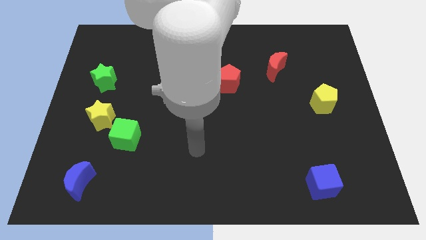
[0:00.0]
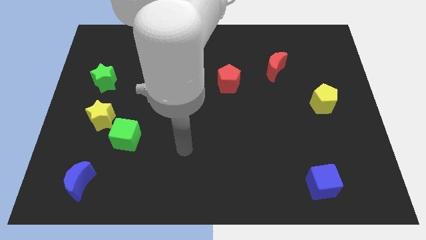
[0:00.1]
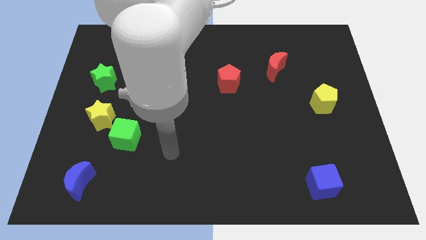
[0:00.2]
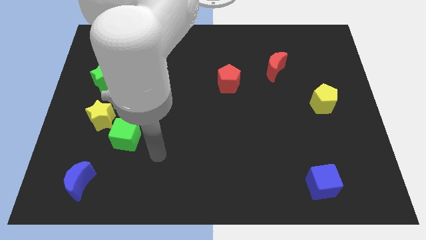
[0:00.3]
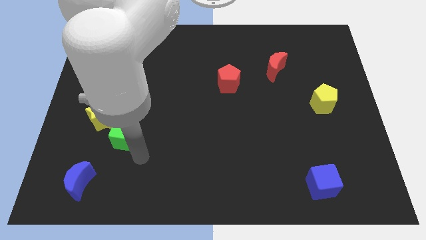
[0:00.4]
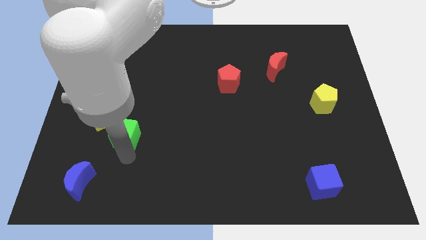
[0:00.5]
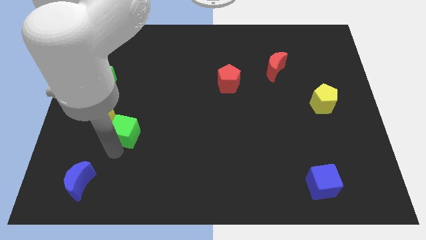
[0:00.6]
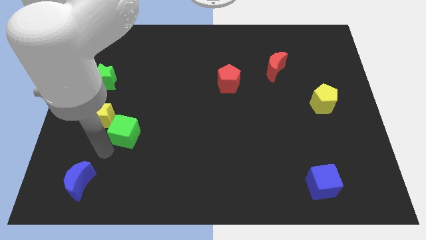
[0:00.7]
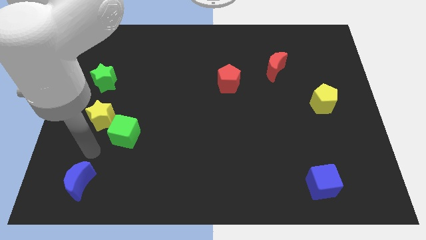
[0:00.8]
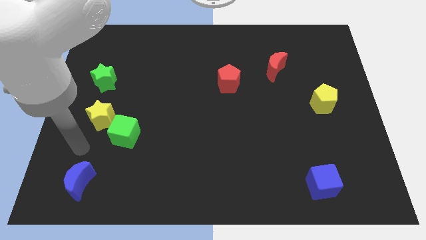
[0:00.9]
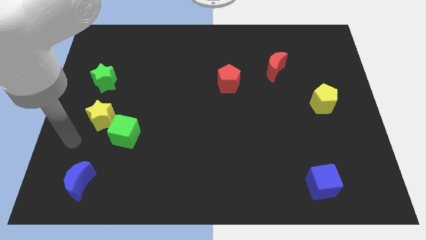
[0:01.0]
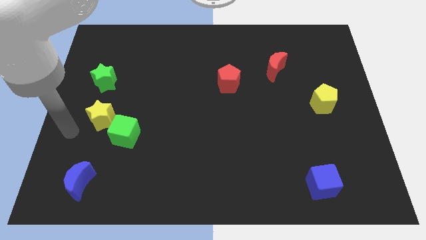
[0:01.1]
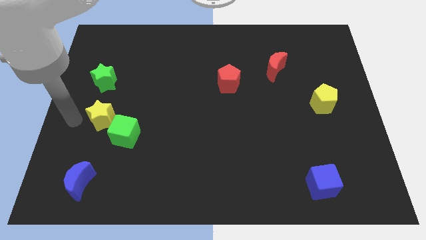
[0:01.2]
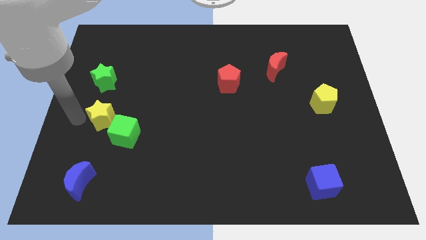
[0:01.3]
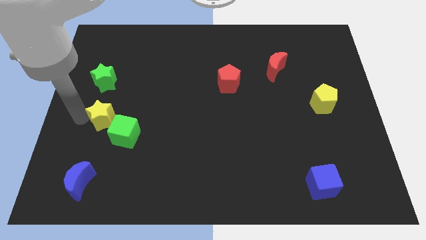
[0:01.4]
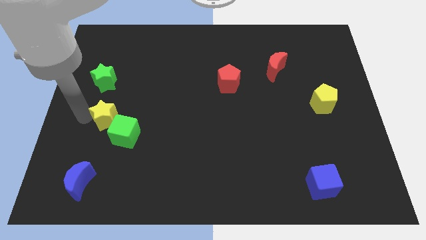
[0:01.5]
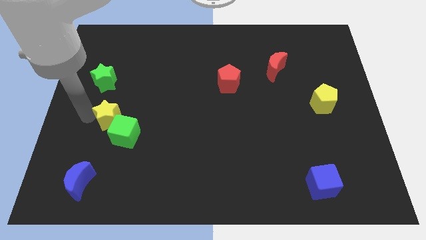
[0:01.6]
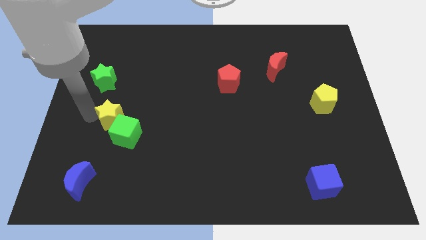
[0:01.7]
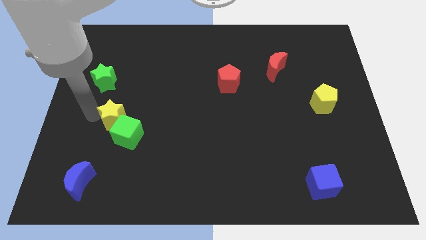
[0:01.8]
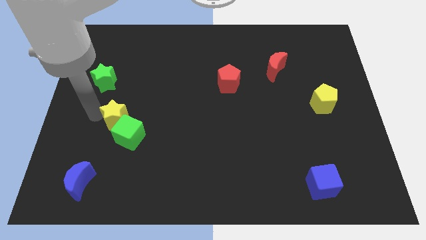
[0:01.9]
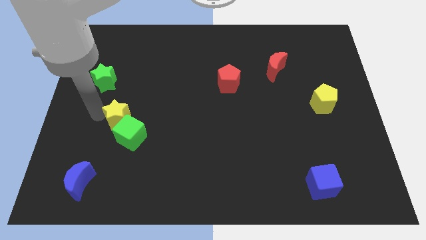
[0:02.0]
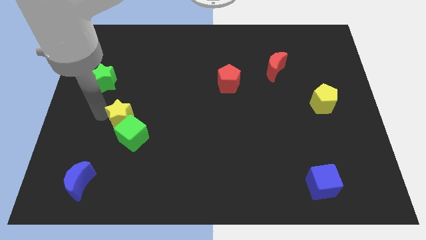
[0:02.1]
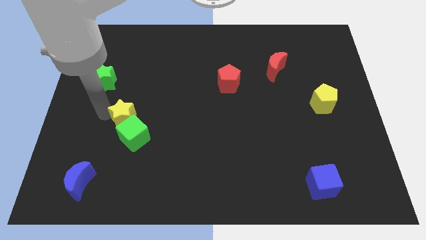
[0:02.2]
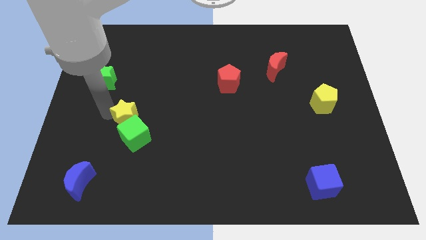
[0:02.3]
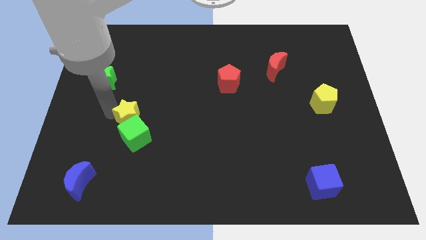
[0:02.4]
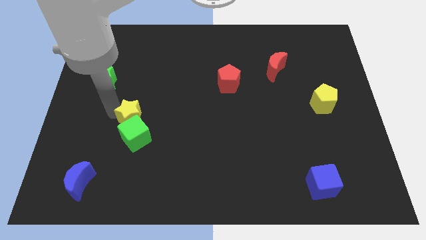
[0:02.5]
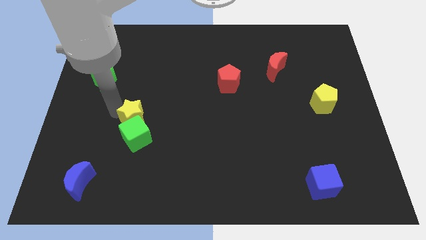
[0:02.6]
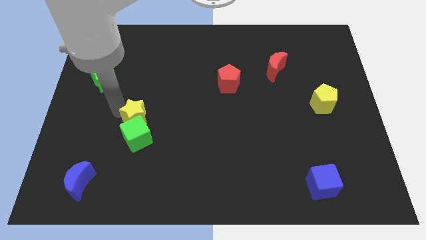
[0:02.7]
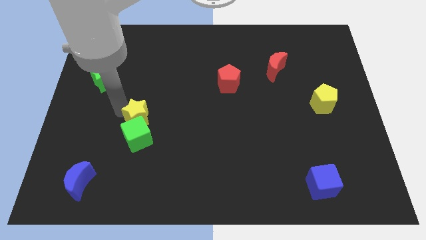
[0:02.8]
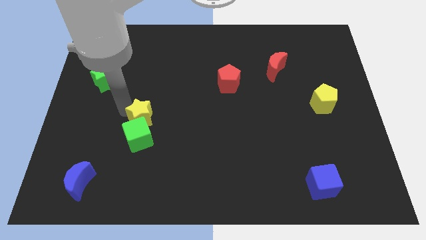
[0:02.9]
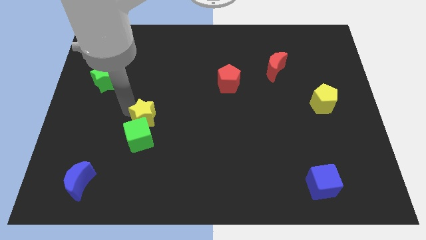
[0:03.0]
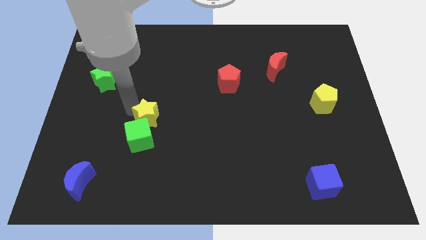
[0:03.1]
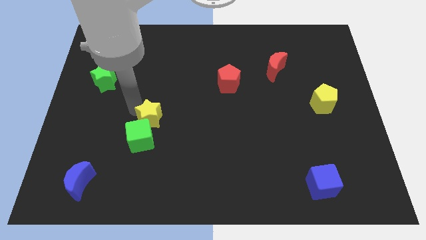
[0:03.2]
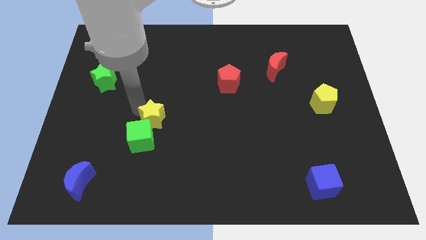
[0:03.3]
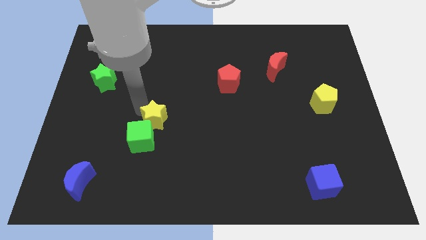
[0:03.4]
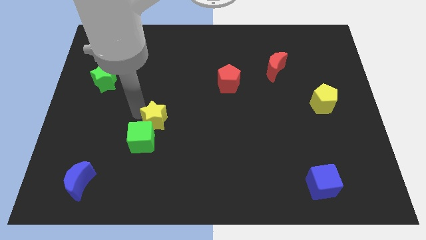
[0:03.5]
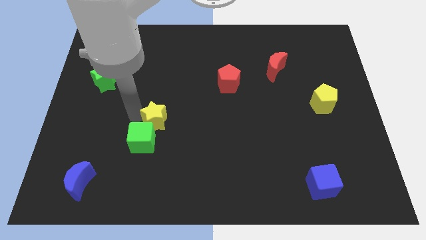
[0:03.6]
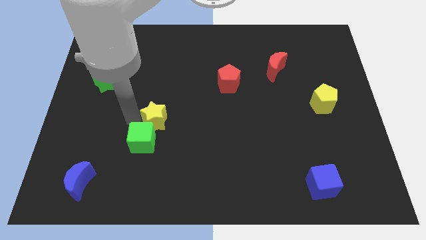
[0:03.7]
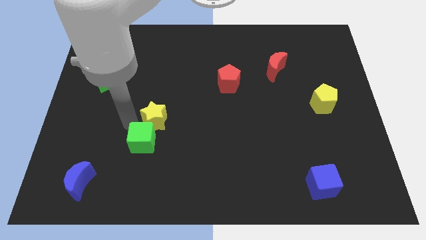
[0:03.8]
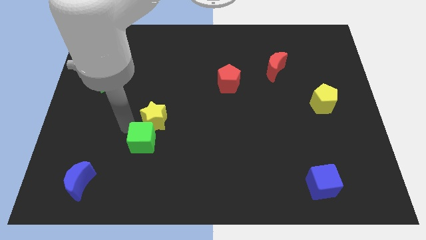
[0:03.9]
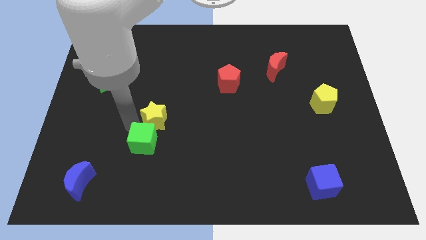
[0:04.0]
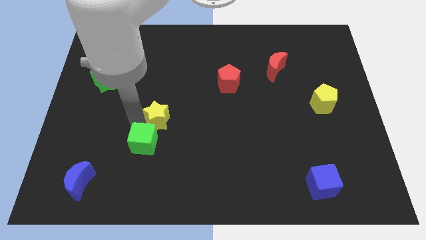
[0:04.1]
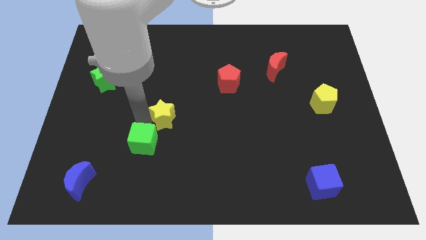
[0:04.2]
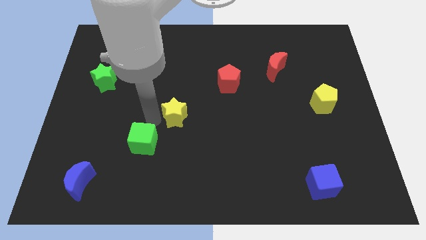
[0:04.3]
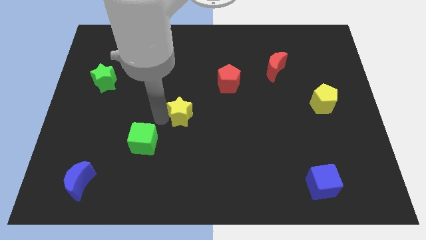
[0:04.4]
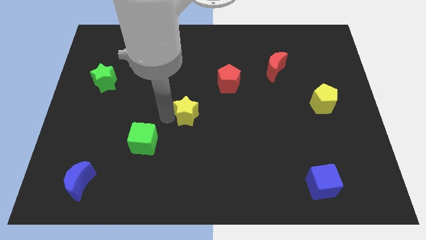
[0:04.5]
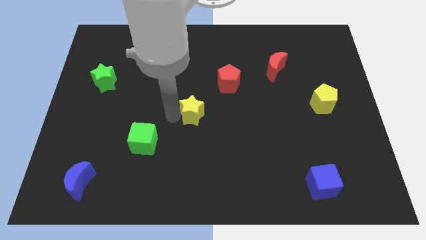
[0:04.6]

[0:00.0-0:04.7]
push the yellow star to the right

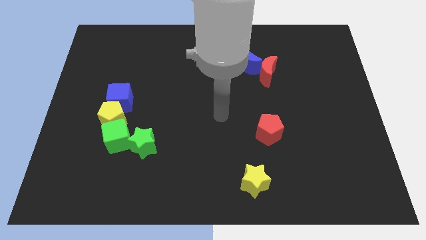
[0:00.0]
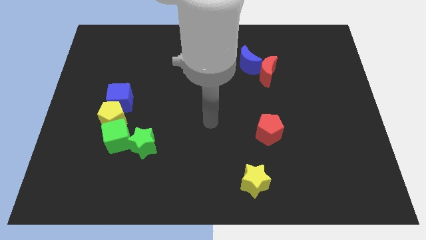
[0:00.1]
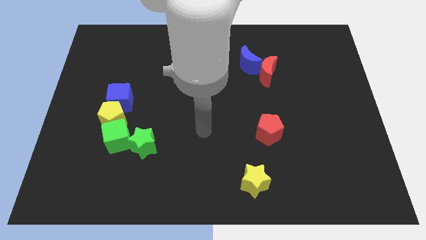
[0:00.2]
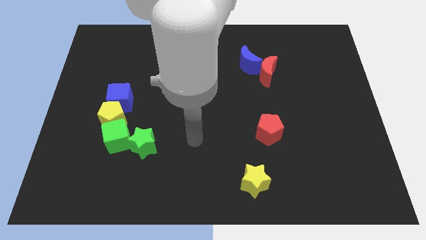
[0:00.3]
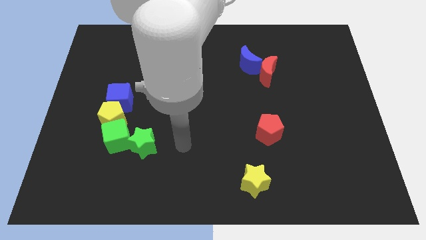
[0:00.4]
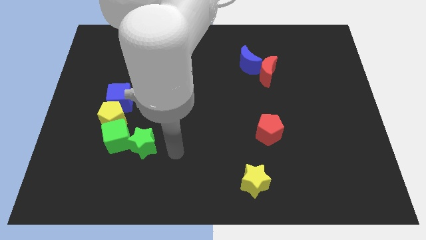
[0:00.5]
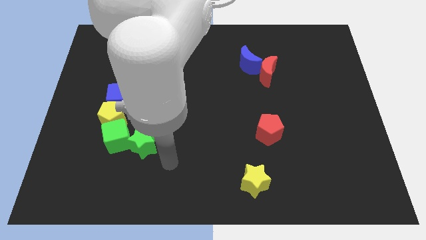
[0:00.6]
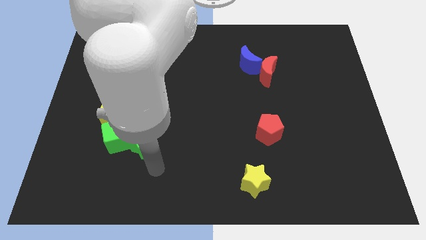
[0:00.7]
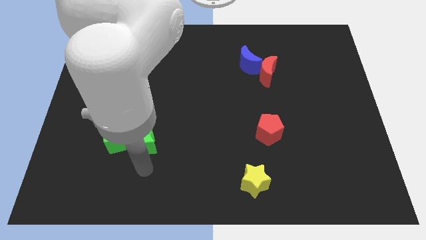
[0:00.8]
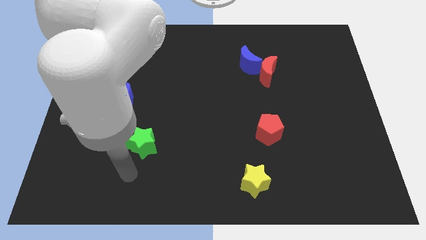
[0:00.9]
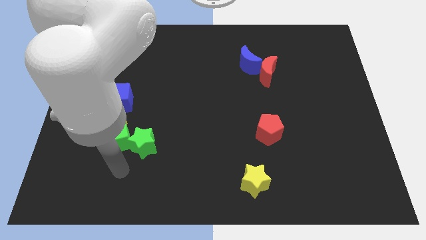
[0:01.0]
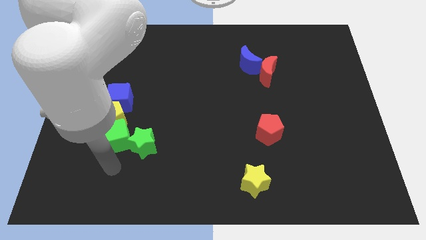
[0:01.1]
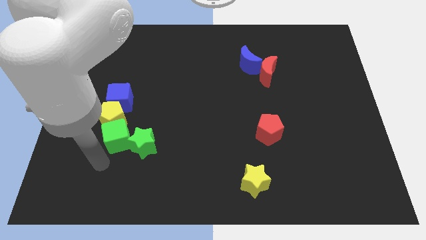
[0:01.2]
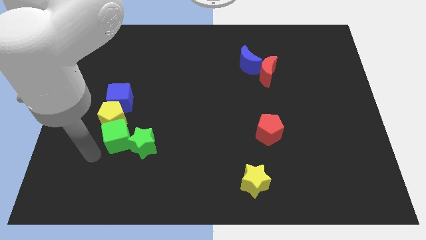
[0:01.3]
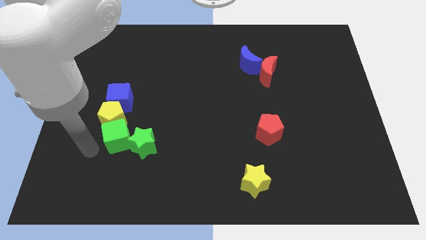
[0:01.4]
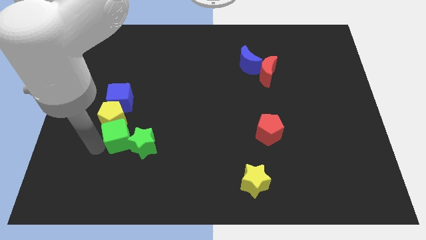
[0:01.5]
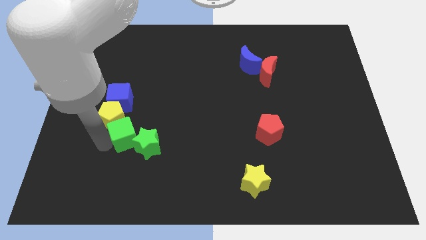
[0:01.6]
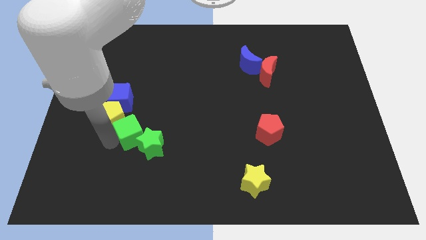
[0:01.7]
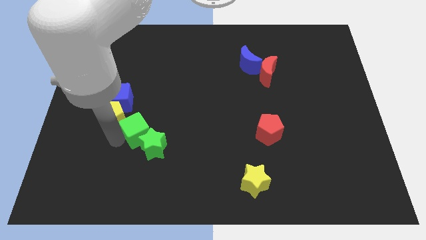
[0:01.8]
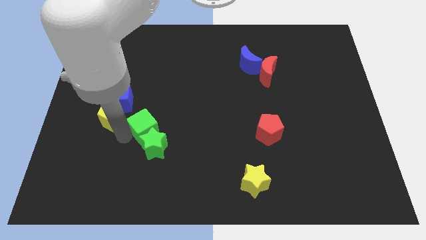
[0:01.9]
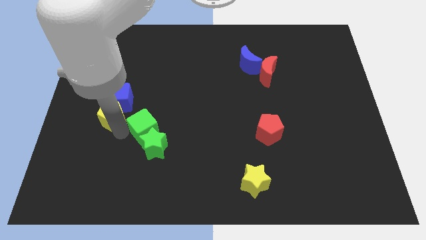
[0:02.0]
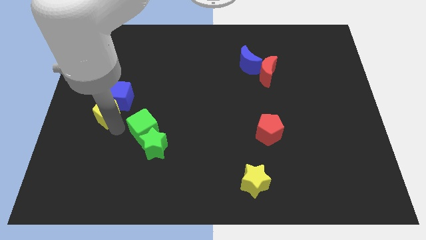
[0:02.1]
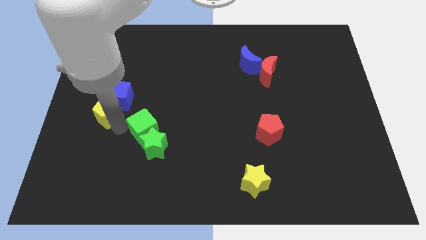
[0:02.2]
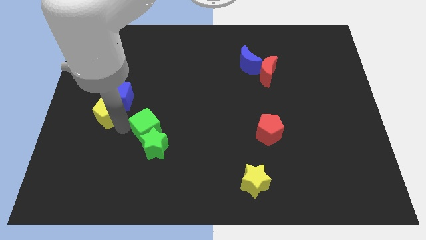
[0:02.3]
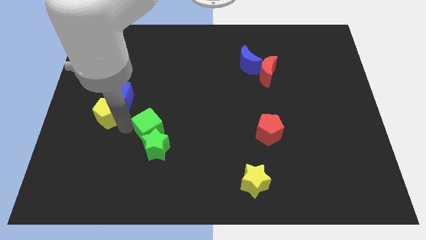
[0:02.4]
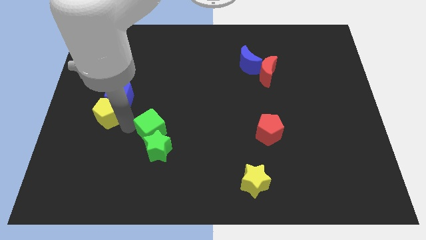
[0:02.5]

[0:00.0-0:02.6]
push the green cube a little right

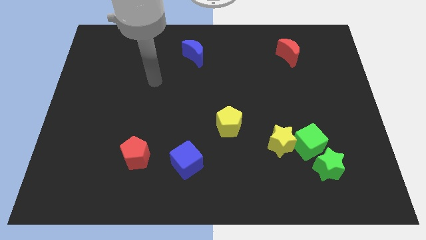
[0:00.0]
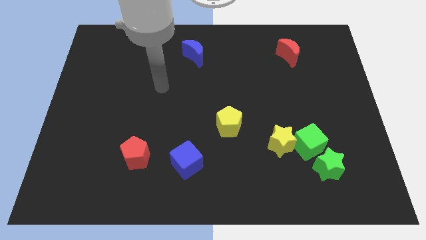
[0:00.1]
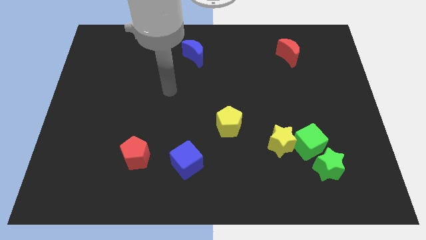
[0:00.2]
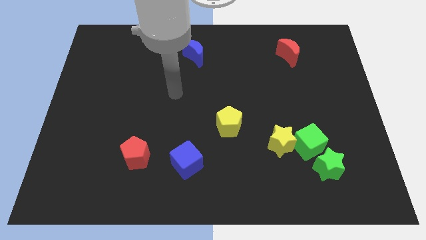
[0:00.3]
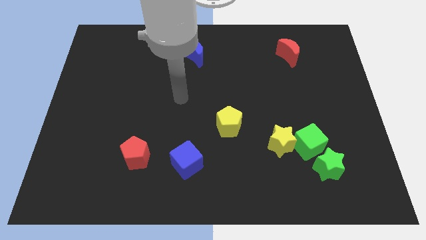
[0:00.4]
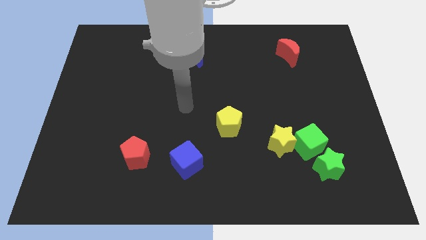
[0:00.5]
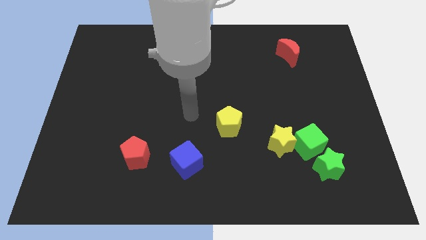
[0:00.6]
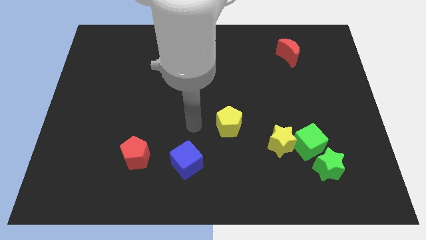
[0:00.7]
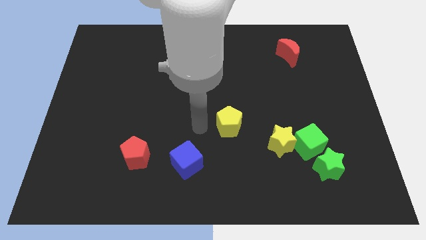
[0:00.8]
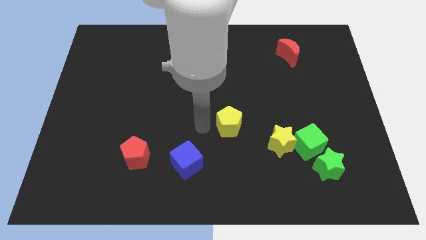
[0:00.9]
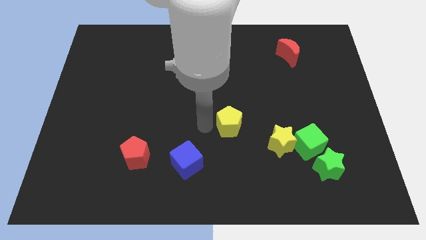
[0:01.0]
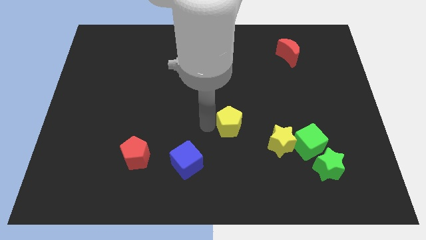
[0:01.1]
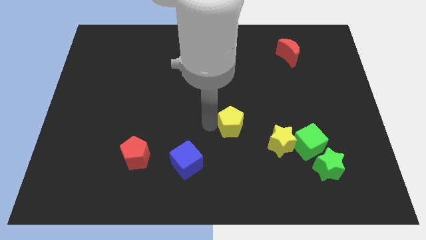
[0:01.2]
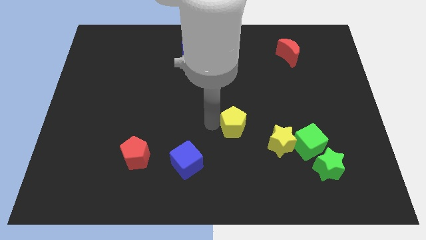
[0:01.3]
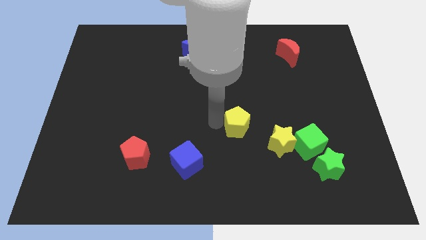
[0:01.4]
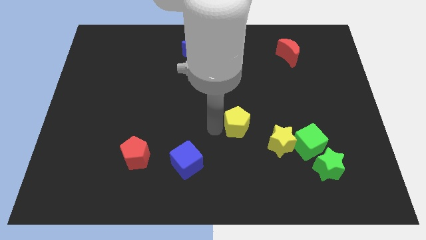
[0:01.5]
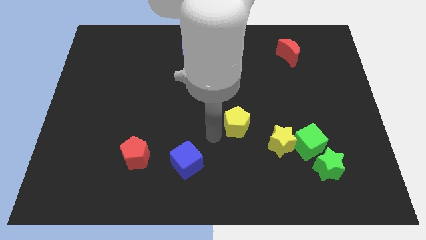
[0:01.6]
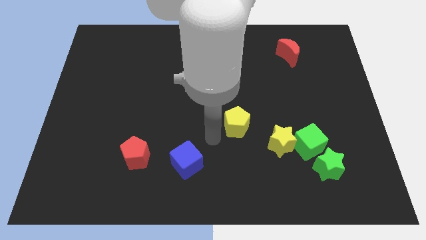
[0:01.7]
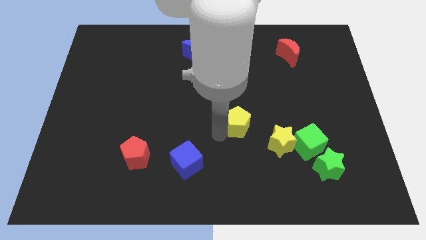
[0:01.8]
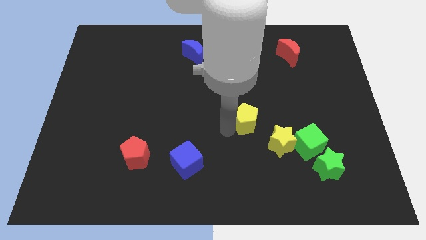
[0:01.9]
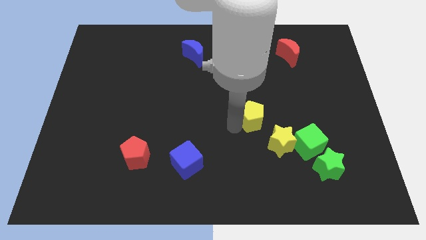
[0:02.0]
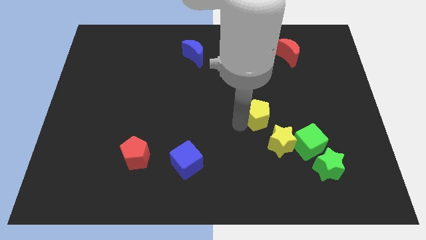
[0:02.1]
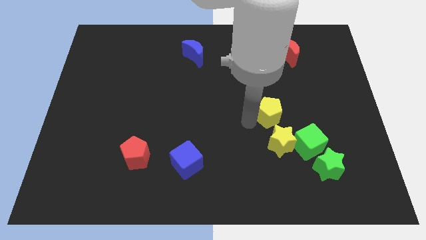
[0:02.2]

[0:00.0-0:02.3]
move the yellow pentagon up and then to the right slightly
